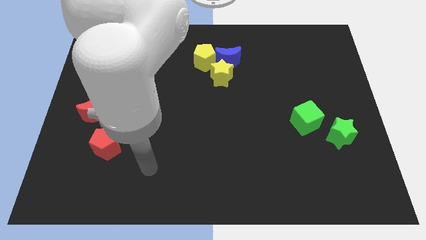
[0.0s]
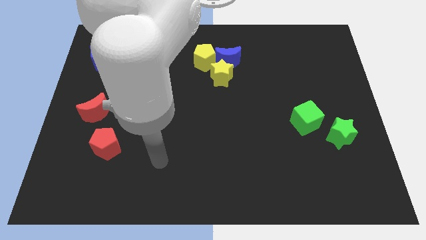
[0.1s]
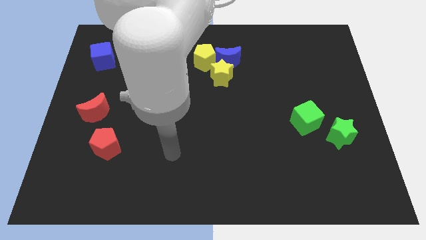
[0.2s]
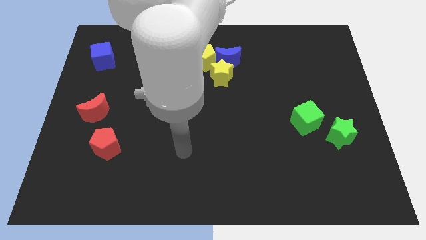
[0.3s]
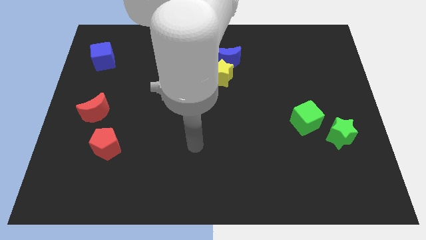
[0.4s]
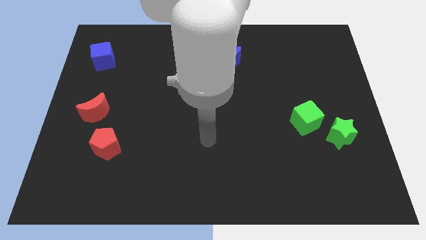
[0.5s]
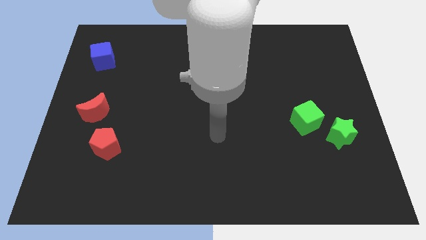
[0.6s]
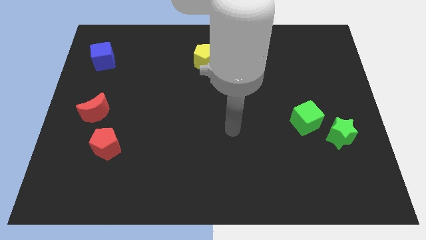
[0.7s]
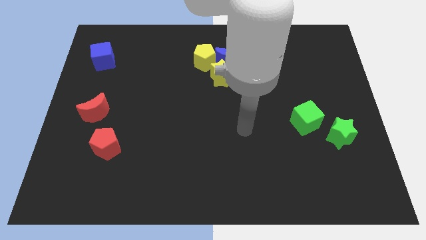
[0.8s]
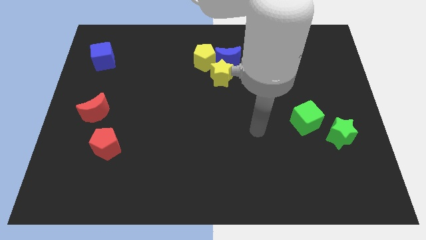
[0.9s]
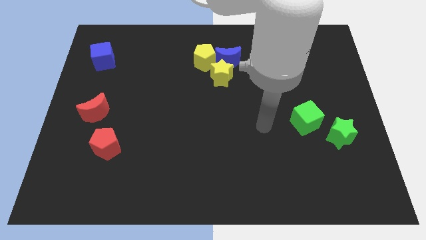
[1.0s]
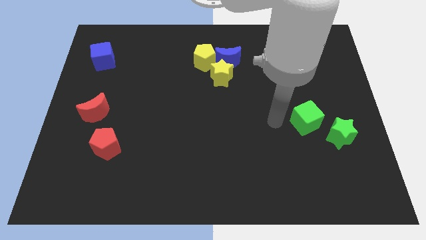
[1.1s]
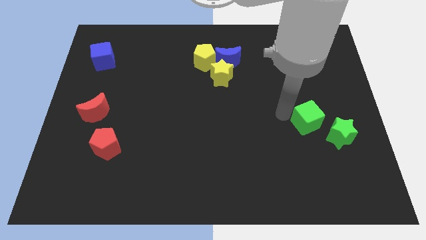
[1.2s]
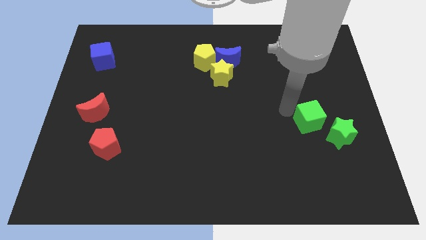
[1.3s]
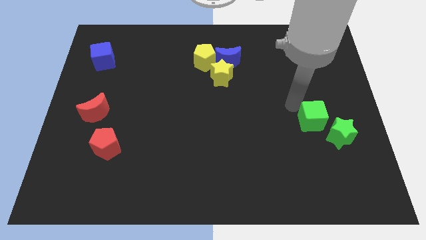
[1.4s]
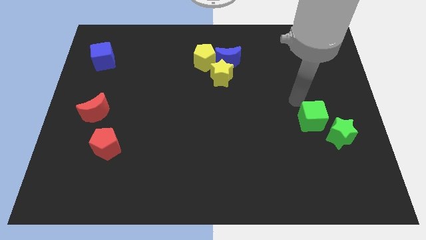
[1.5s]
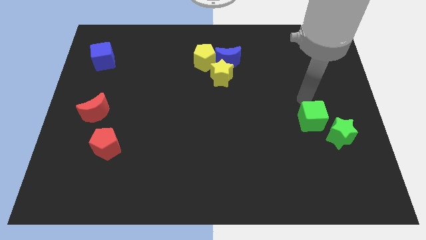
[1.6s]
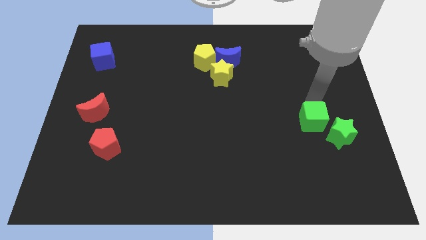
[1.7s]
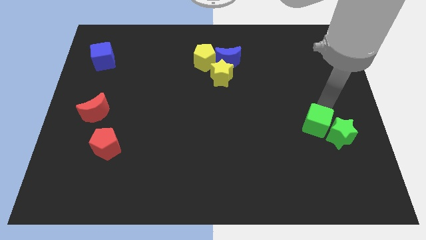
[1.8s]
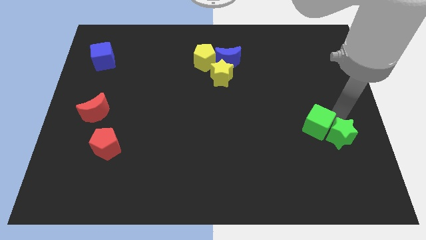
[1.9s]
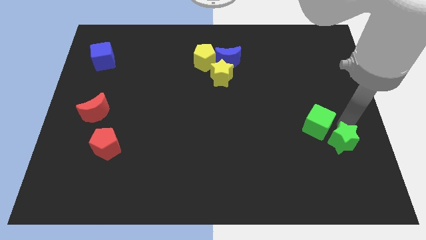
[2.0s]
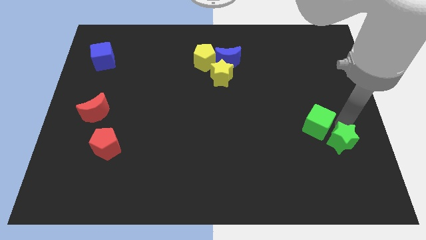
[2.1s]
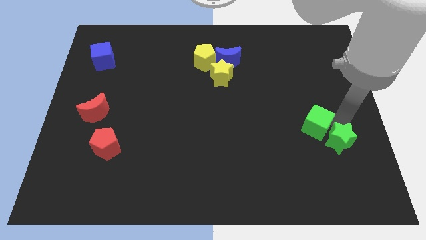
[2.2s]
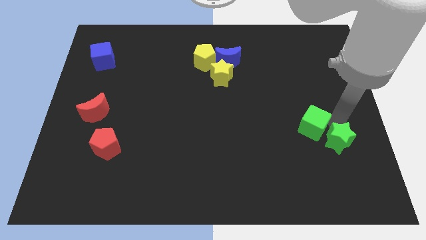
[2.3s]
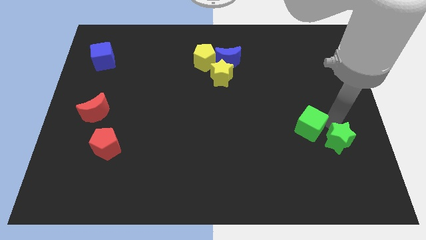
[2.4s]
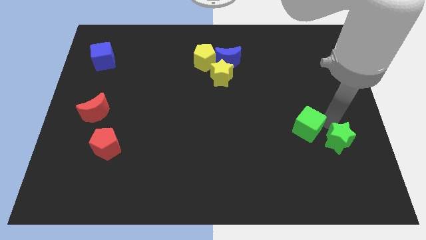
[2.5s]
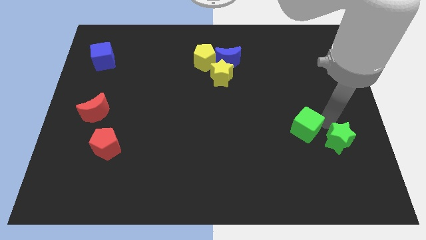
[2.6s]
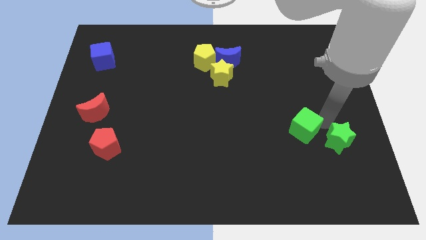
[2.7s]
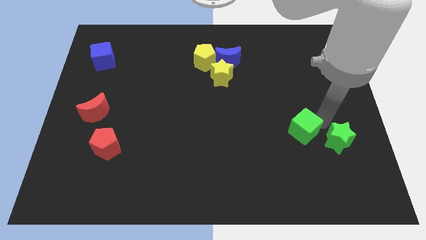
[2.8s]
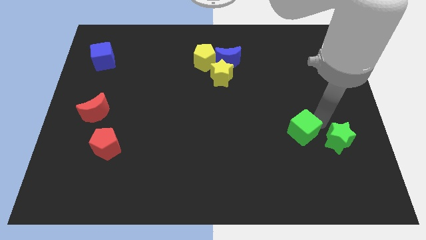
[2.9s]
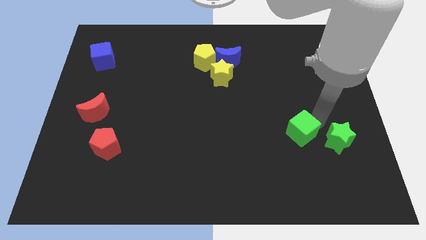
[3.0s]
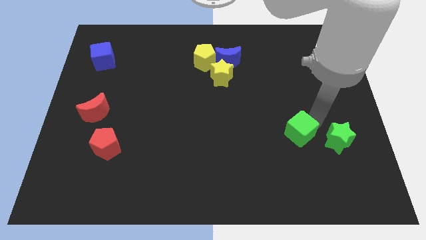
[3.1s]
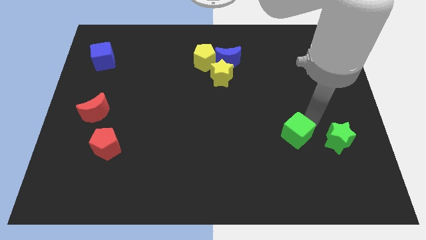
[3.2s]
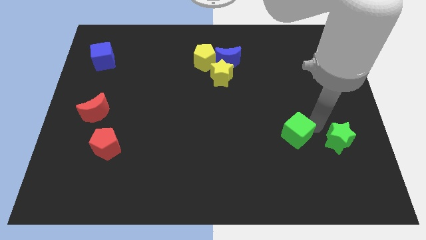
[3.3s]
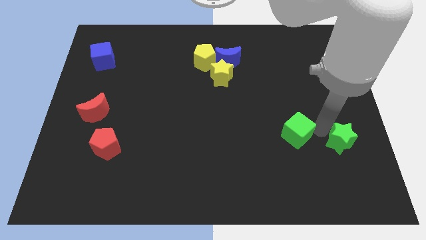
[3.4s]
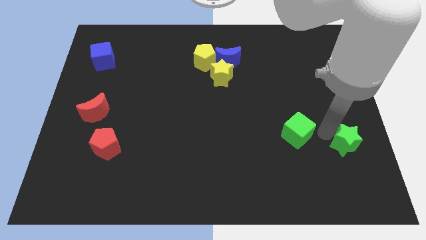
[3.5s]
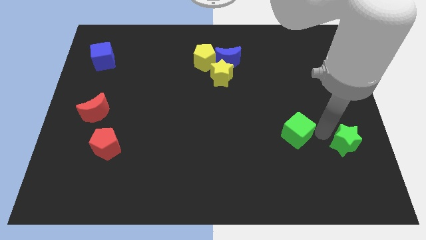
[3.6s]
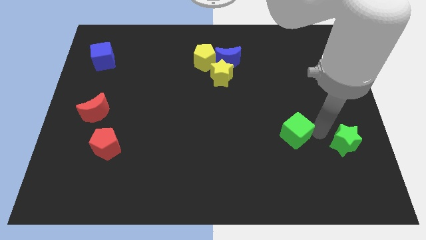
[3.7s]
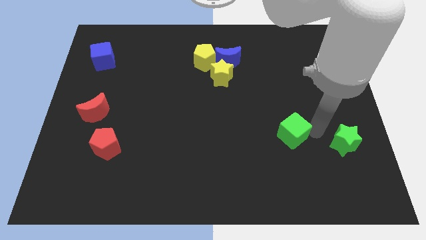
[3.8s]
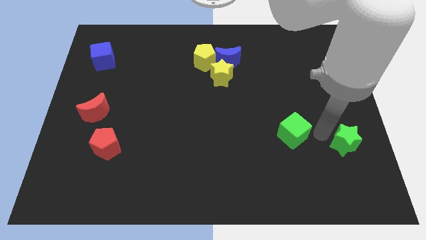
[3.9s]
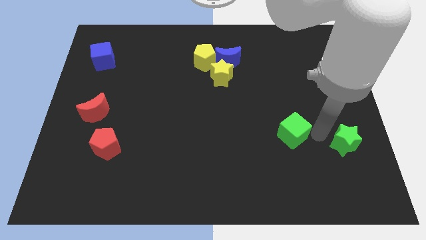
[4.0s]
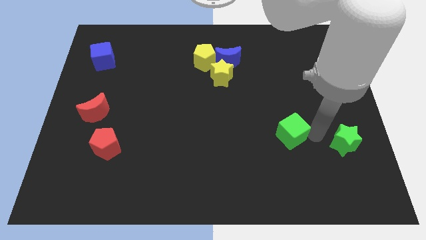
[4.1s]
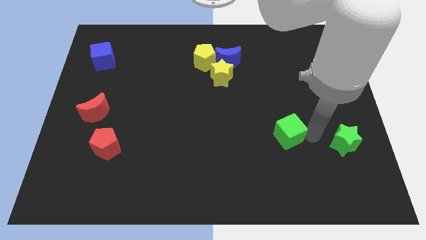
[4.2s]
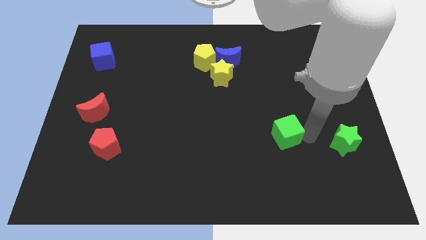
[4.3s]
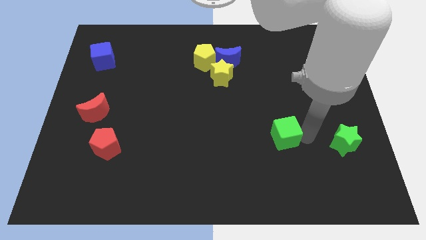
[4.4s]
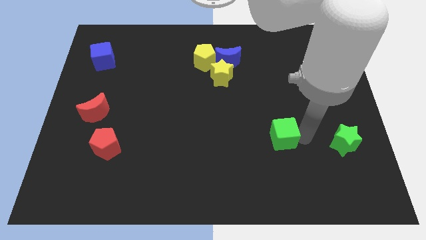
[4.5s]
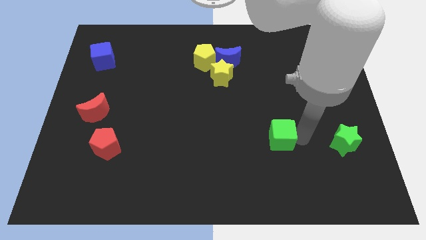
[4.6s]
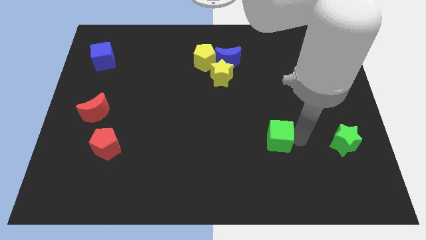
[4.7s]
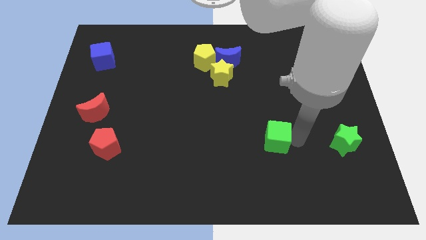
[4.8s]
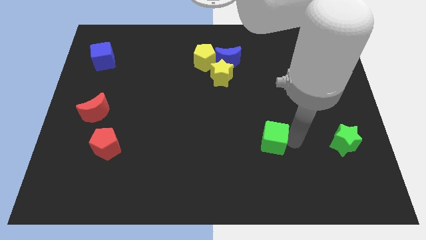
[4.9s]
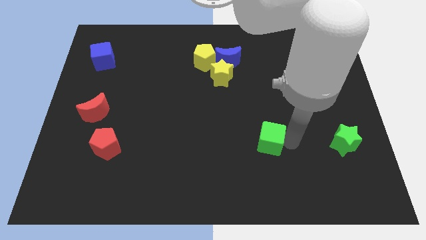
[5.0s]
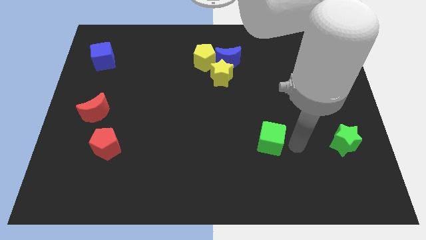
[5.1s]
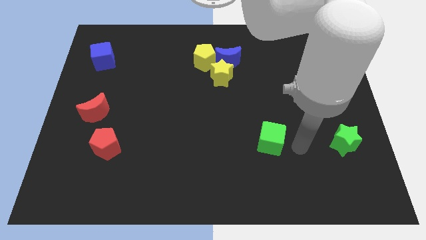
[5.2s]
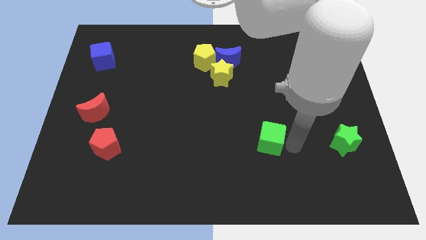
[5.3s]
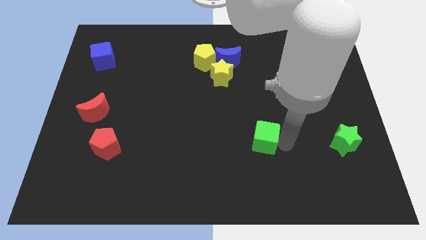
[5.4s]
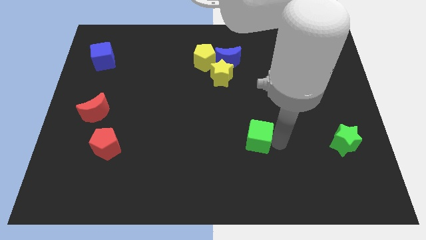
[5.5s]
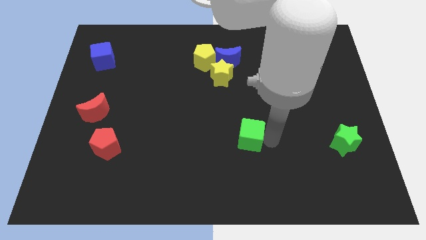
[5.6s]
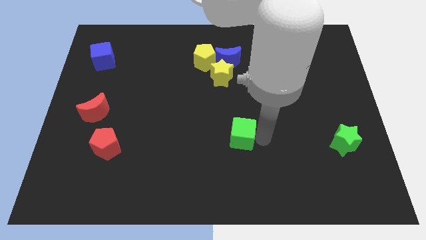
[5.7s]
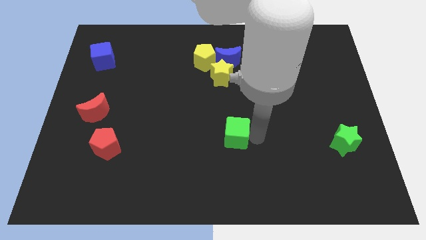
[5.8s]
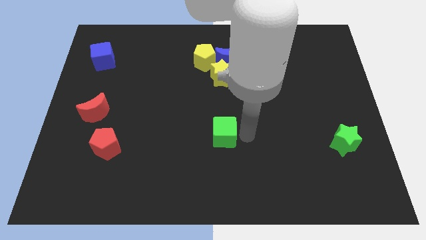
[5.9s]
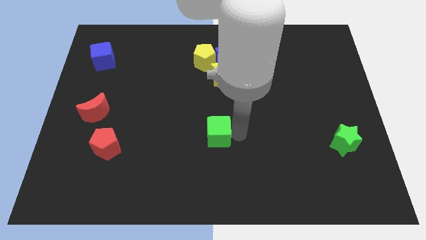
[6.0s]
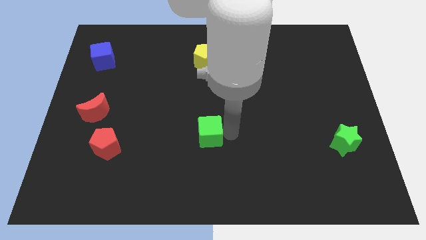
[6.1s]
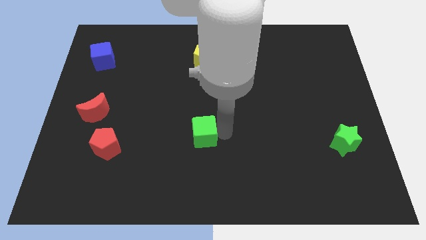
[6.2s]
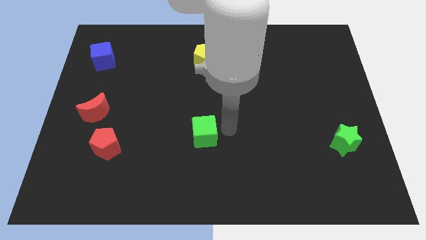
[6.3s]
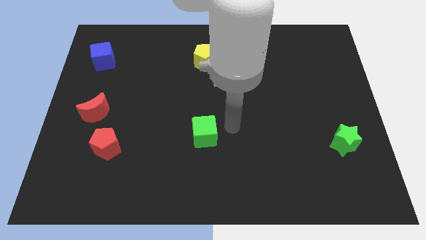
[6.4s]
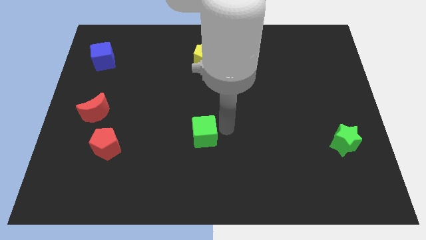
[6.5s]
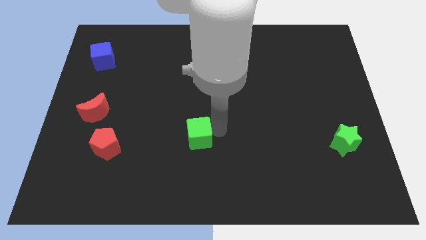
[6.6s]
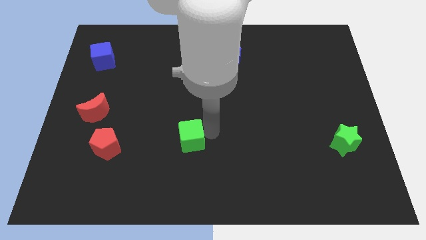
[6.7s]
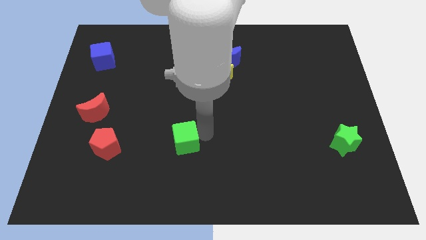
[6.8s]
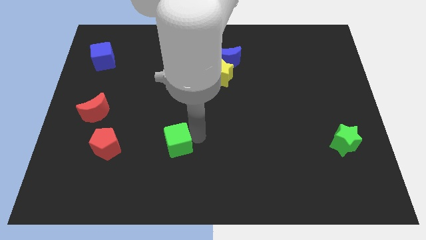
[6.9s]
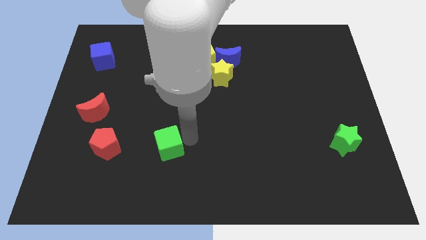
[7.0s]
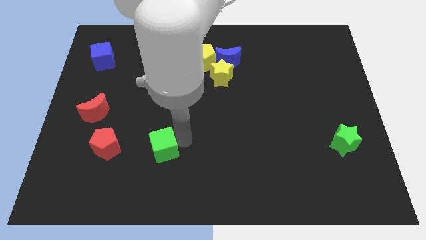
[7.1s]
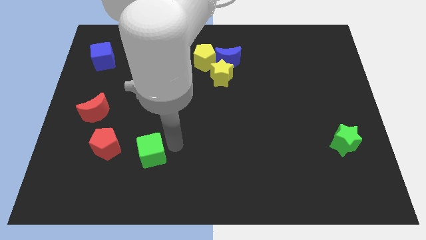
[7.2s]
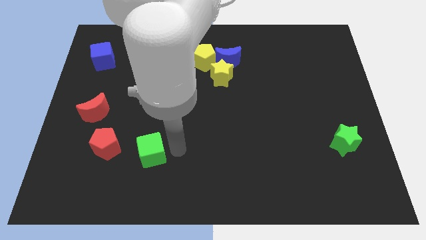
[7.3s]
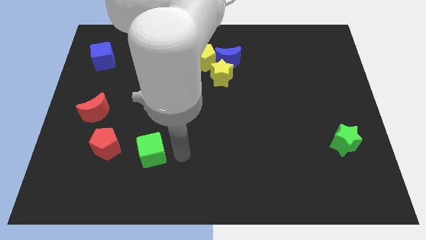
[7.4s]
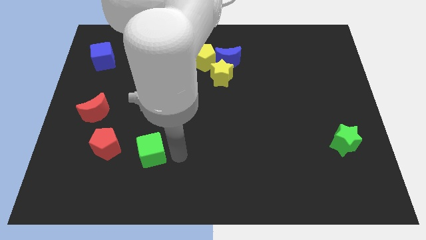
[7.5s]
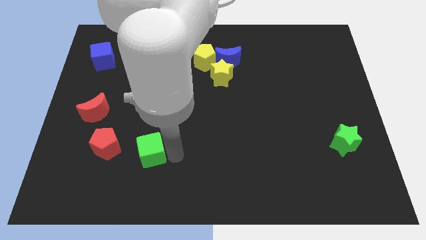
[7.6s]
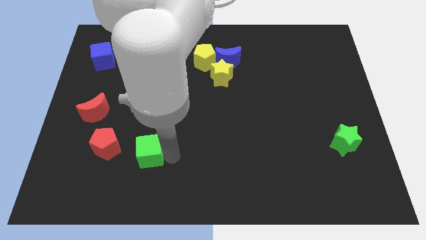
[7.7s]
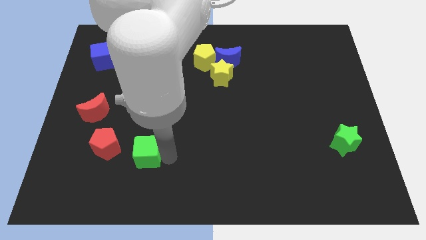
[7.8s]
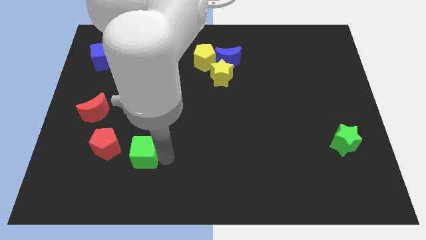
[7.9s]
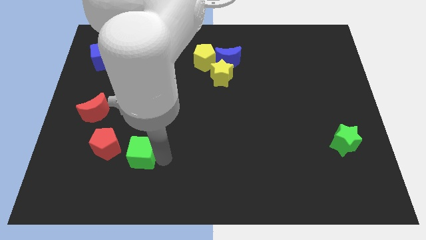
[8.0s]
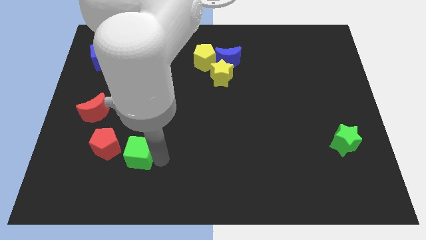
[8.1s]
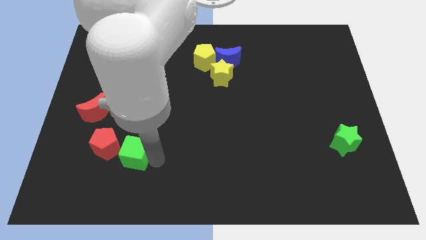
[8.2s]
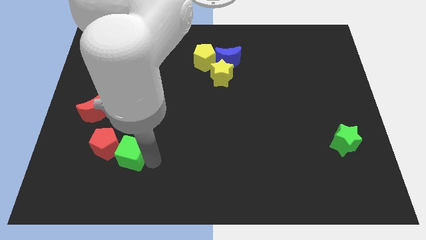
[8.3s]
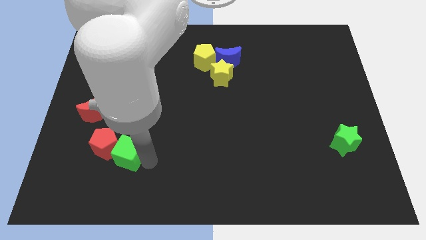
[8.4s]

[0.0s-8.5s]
move the green cube next to the red pentagon
